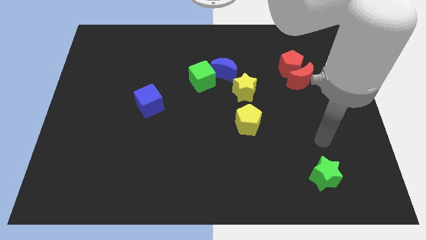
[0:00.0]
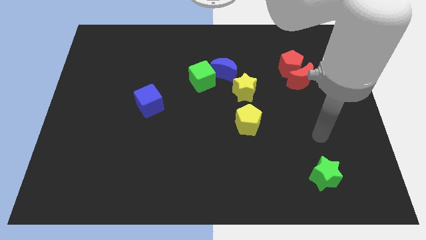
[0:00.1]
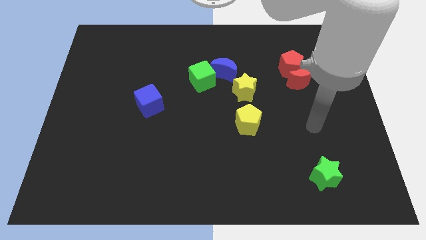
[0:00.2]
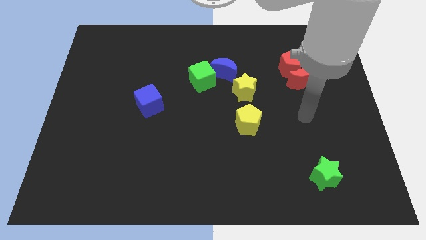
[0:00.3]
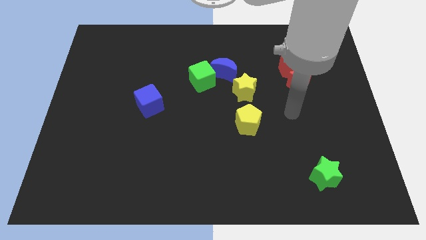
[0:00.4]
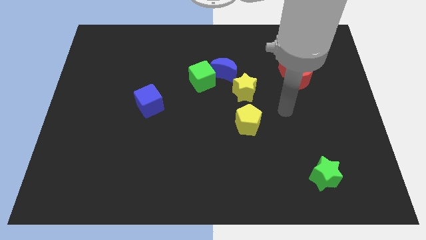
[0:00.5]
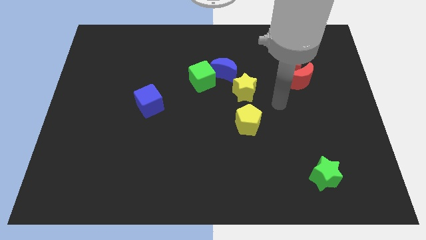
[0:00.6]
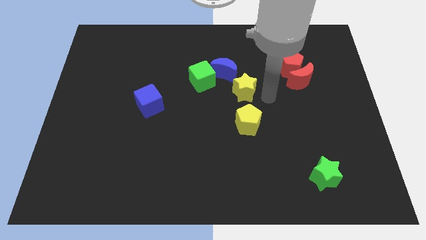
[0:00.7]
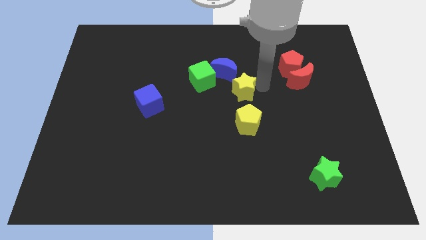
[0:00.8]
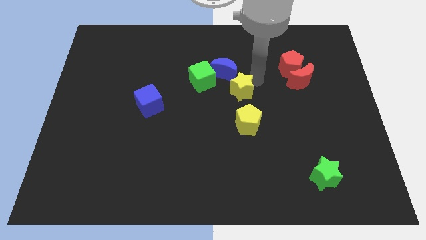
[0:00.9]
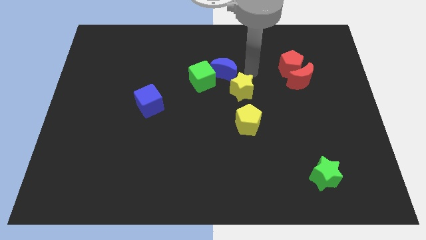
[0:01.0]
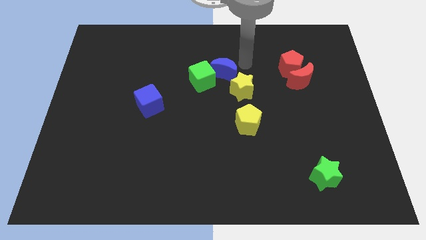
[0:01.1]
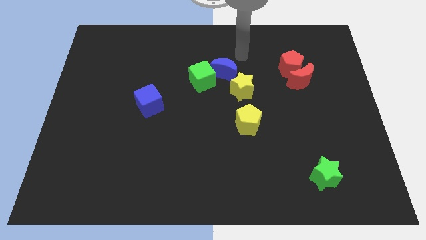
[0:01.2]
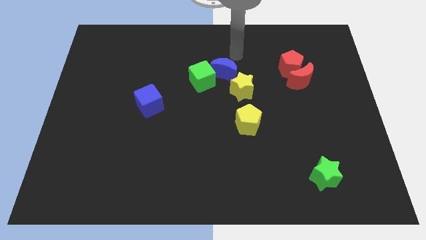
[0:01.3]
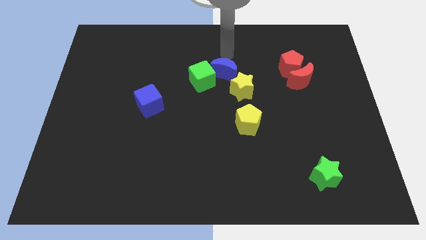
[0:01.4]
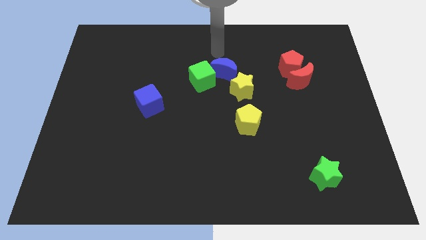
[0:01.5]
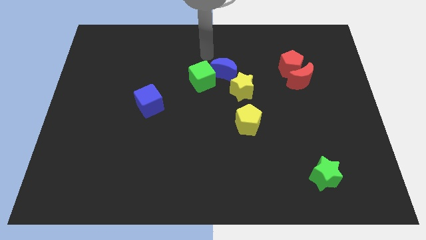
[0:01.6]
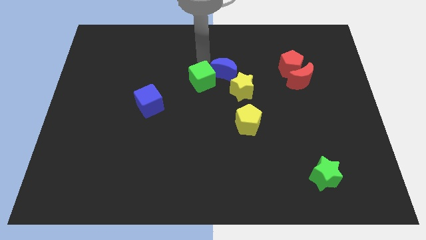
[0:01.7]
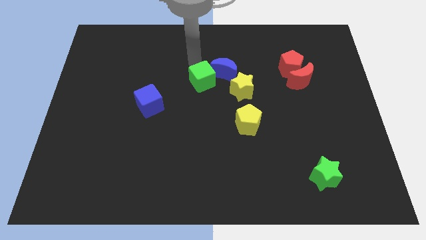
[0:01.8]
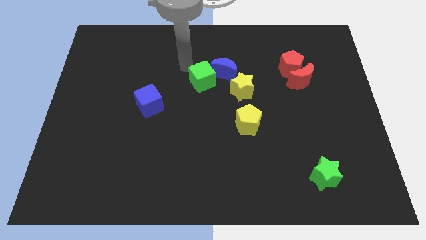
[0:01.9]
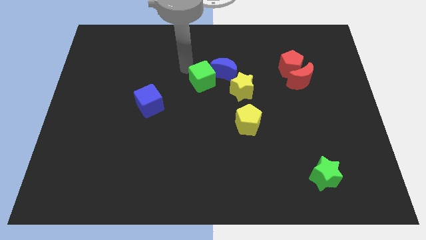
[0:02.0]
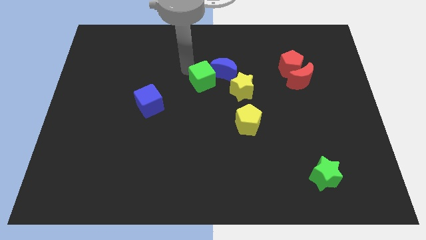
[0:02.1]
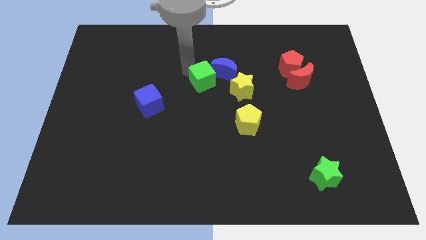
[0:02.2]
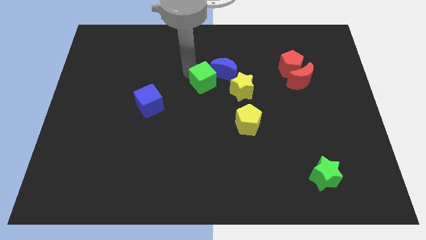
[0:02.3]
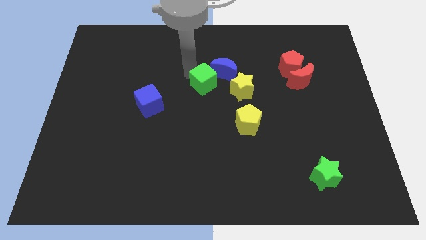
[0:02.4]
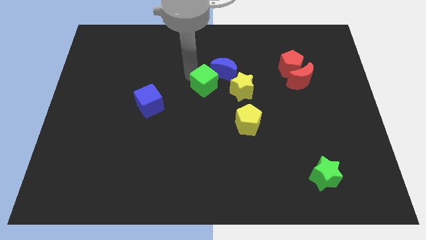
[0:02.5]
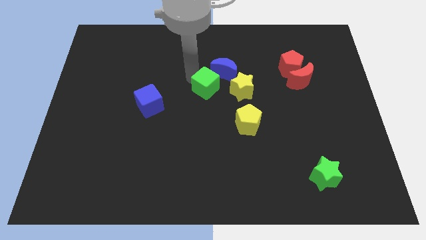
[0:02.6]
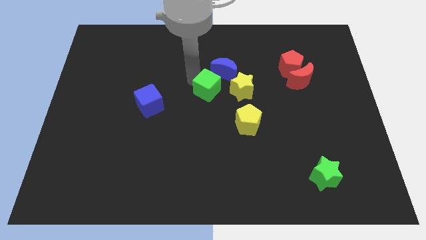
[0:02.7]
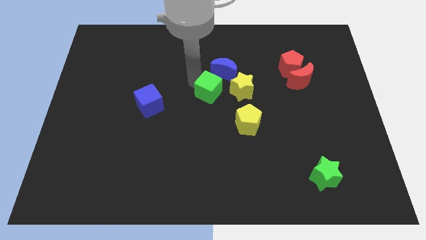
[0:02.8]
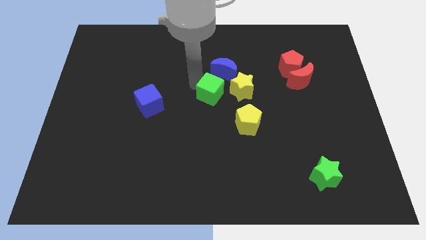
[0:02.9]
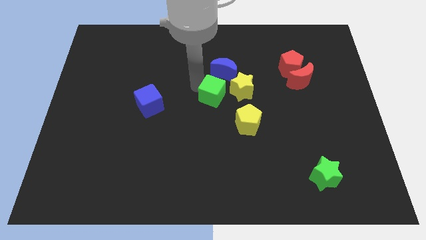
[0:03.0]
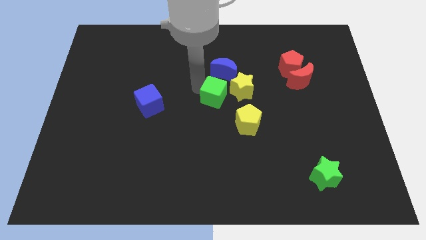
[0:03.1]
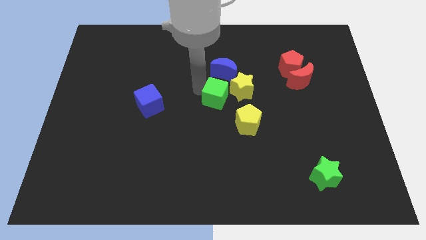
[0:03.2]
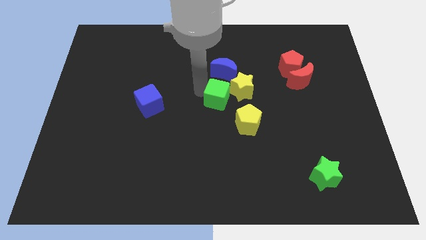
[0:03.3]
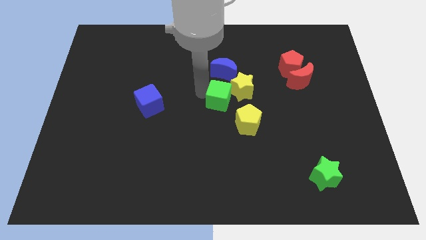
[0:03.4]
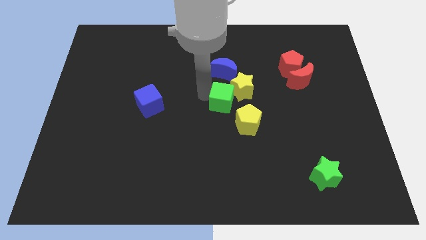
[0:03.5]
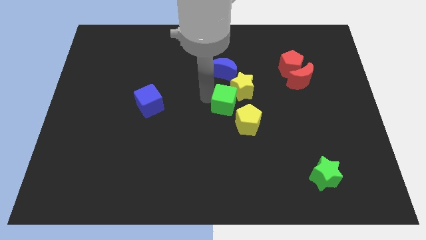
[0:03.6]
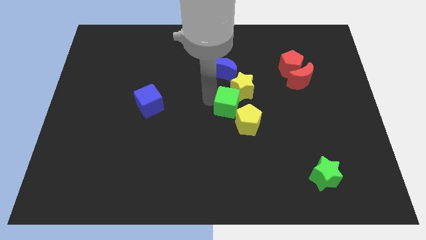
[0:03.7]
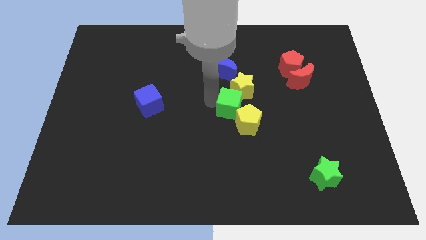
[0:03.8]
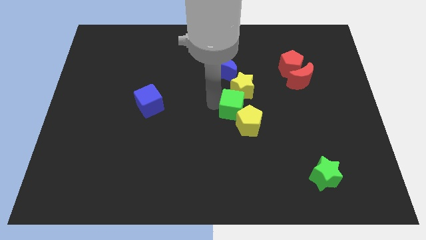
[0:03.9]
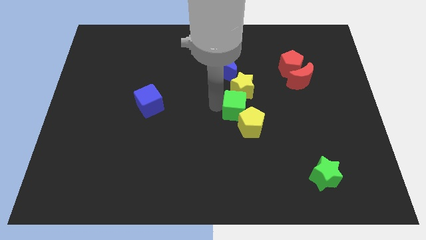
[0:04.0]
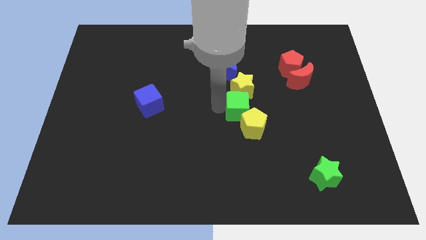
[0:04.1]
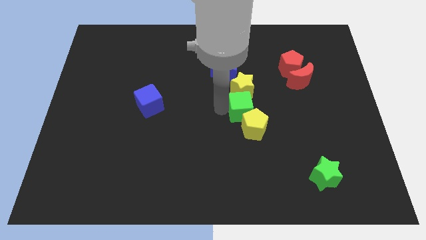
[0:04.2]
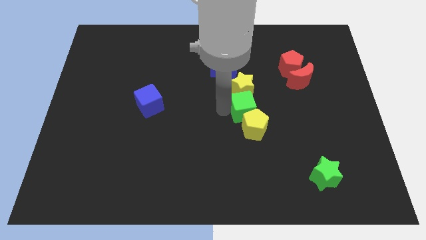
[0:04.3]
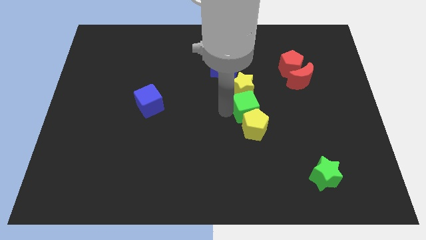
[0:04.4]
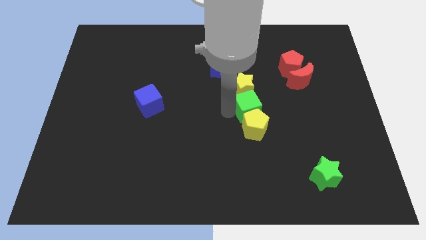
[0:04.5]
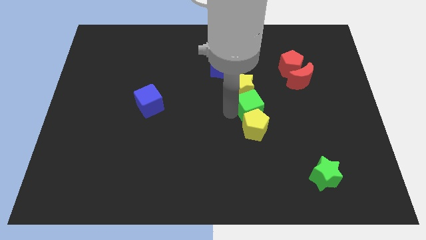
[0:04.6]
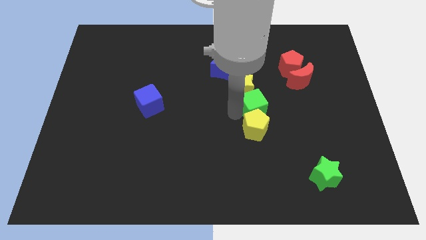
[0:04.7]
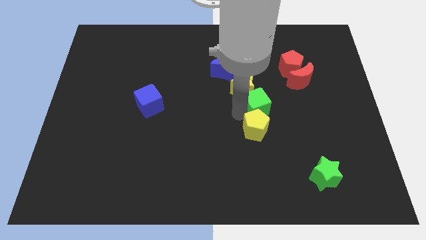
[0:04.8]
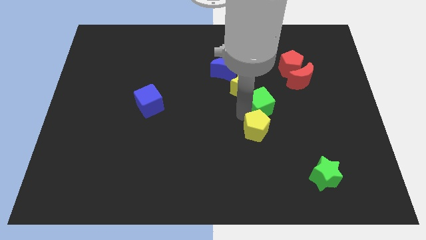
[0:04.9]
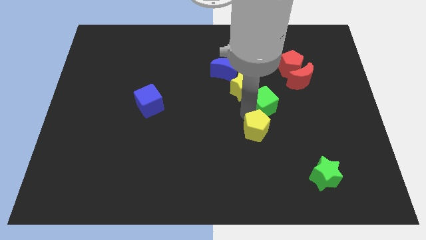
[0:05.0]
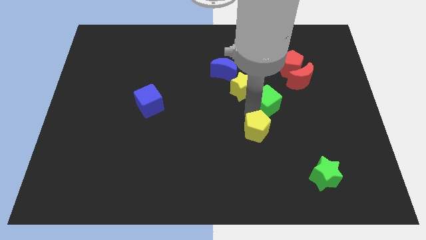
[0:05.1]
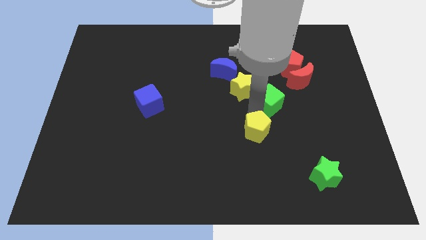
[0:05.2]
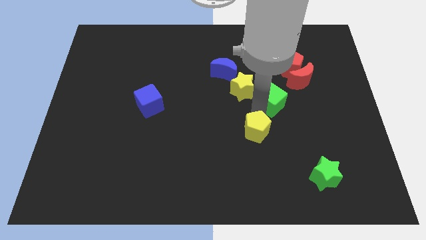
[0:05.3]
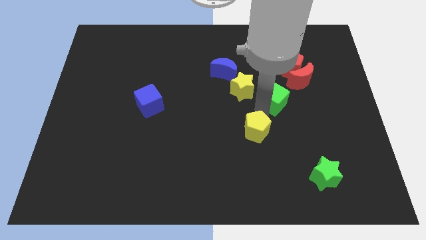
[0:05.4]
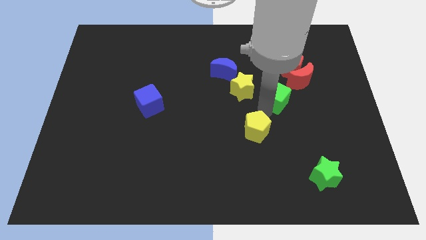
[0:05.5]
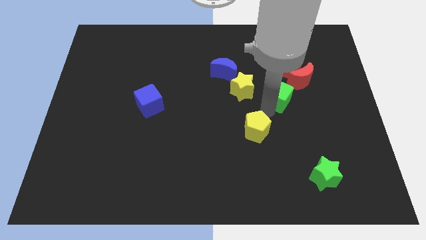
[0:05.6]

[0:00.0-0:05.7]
slide the green cube to the bottom left side of the red pentagon

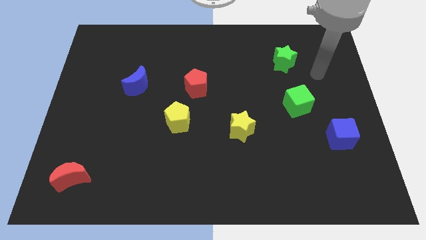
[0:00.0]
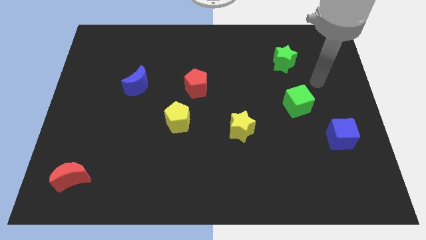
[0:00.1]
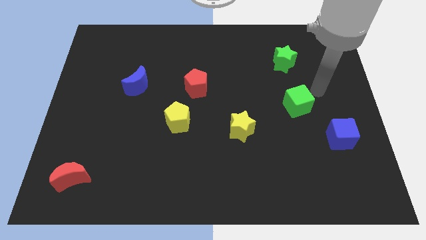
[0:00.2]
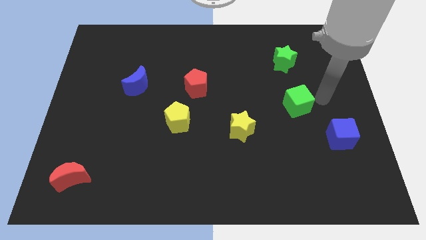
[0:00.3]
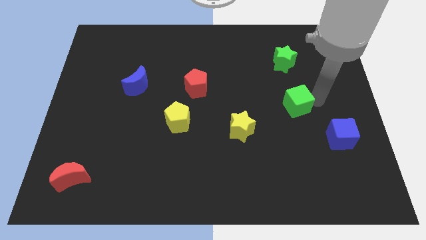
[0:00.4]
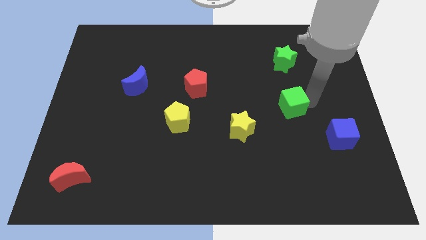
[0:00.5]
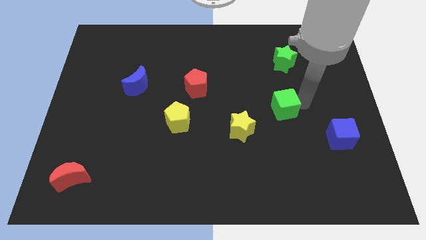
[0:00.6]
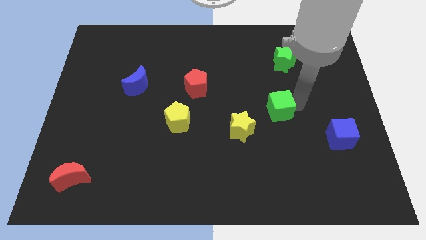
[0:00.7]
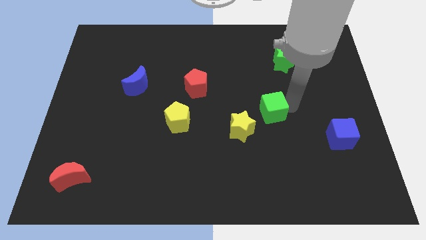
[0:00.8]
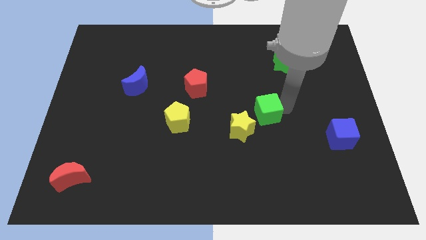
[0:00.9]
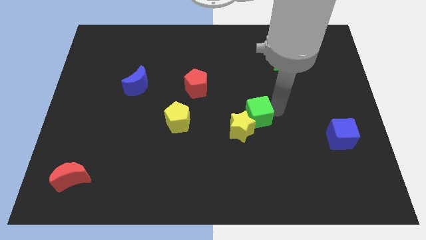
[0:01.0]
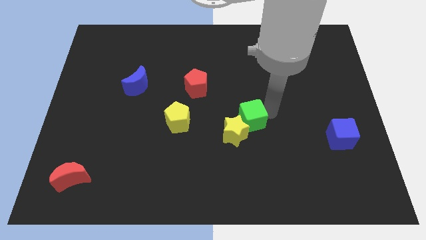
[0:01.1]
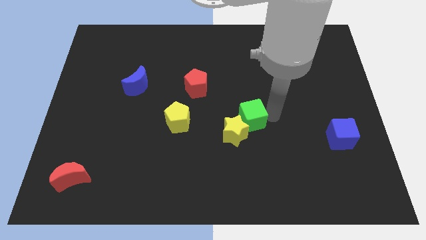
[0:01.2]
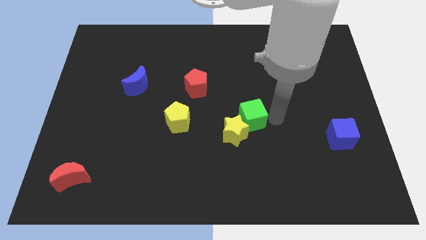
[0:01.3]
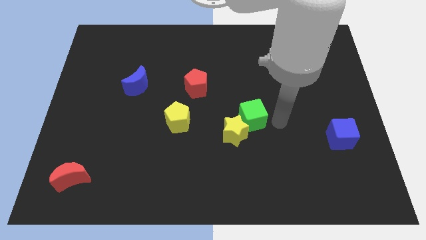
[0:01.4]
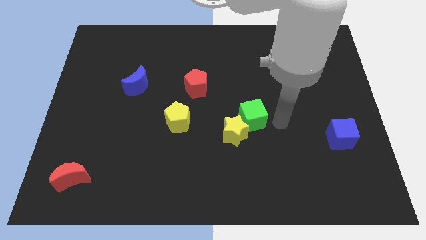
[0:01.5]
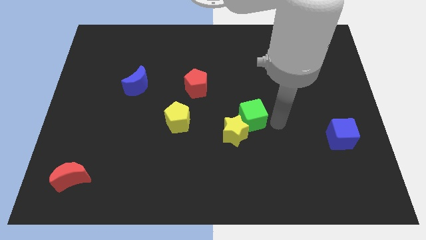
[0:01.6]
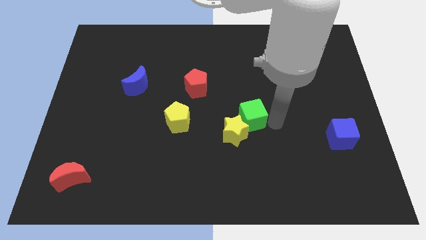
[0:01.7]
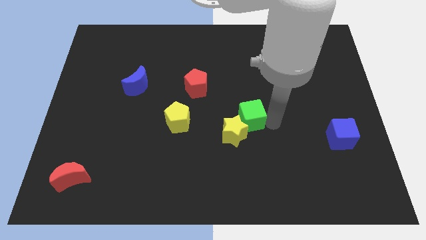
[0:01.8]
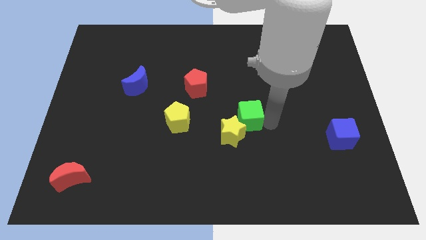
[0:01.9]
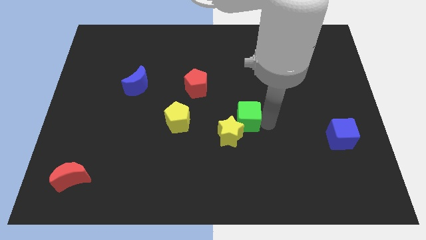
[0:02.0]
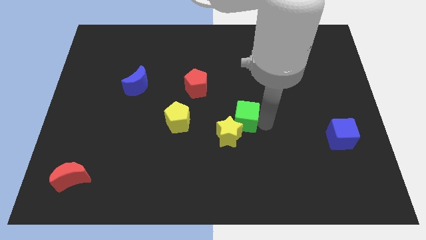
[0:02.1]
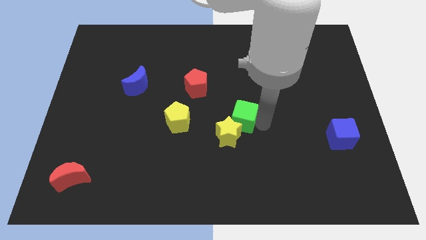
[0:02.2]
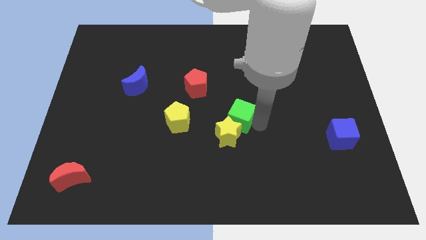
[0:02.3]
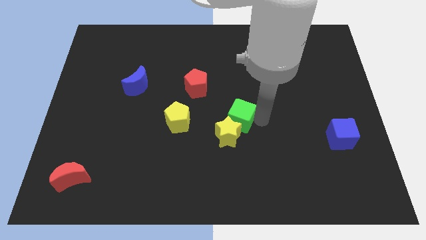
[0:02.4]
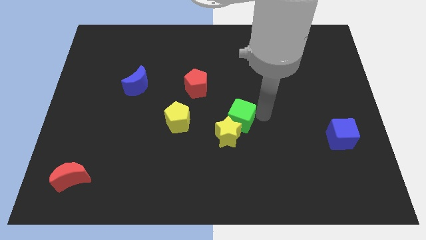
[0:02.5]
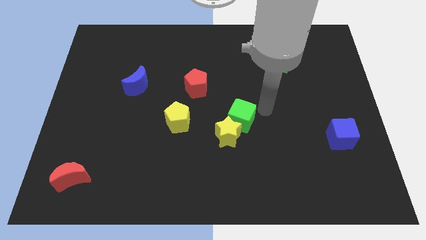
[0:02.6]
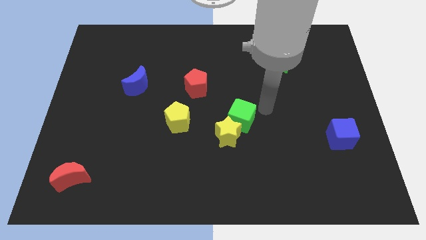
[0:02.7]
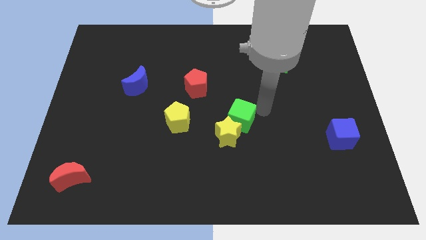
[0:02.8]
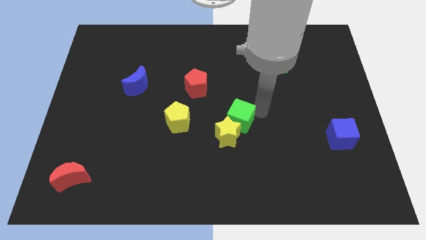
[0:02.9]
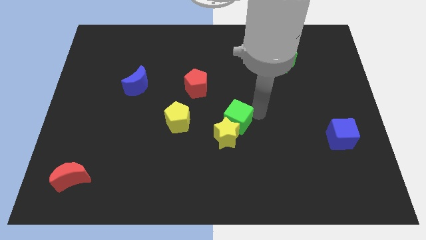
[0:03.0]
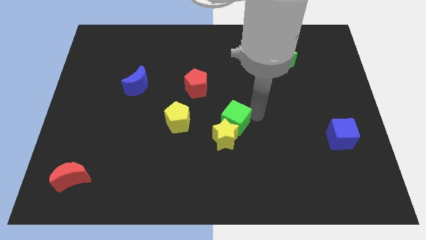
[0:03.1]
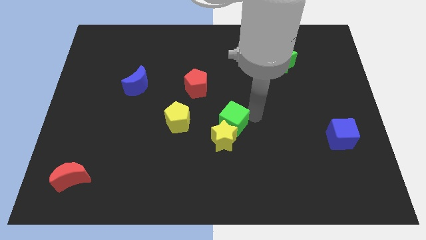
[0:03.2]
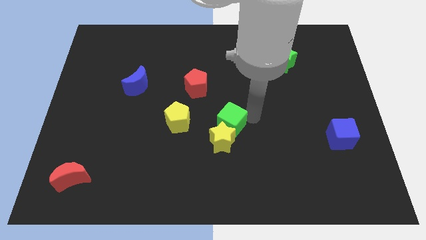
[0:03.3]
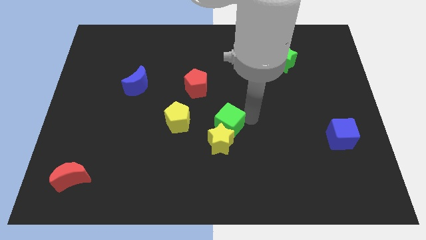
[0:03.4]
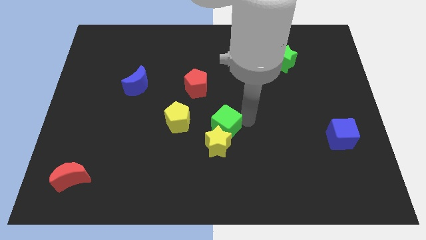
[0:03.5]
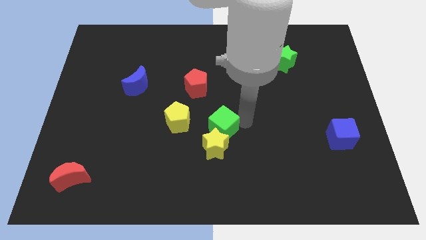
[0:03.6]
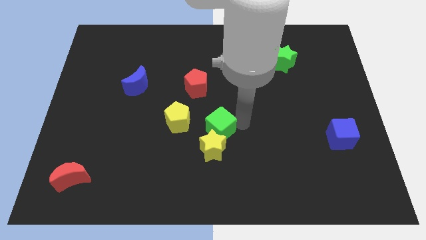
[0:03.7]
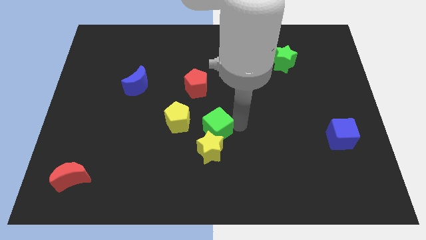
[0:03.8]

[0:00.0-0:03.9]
slide the green cube to the bottom right side of the yellow pentagon
